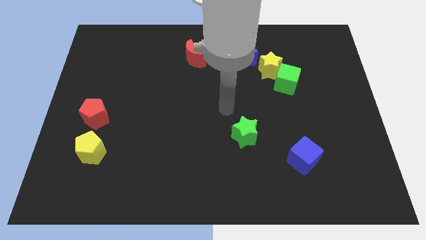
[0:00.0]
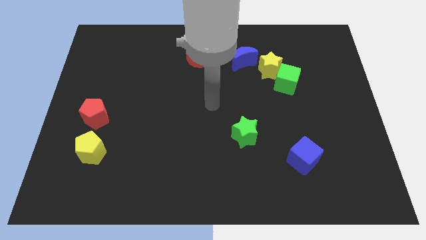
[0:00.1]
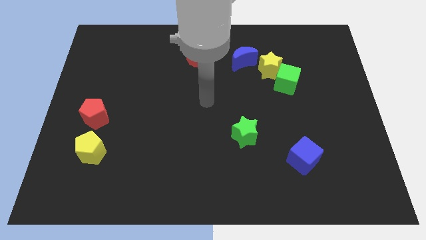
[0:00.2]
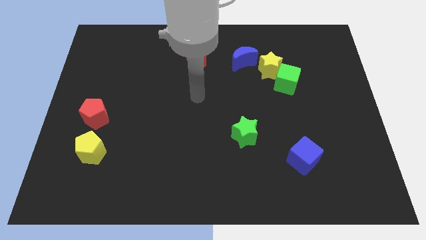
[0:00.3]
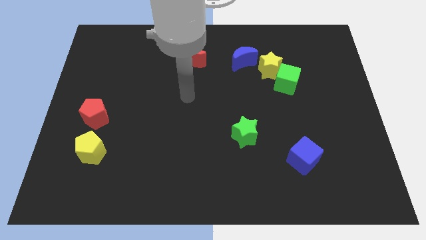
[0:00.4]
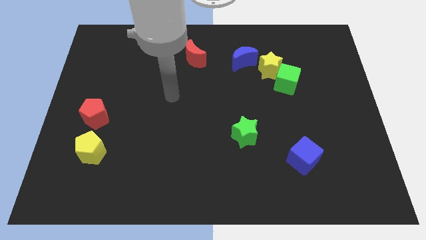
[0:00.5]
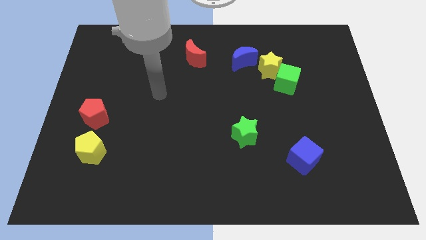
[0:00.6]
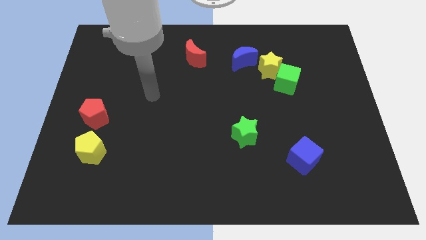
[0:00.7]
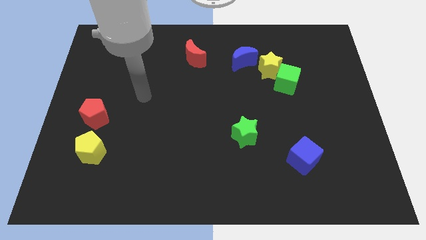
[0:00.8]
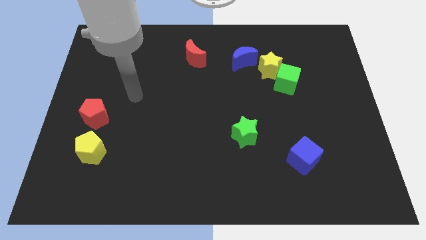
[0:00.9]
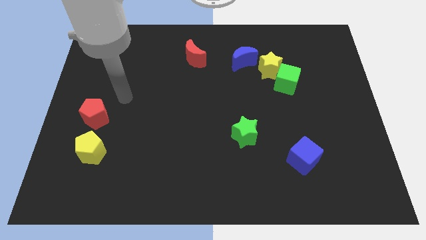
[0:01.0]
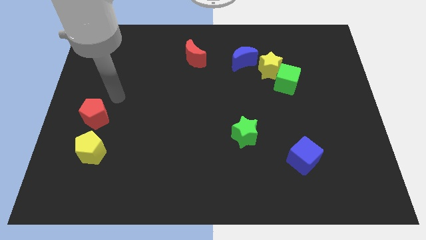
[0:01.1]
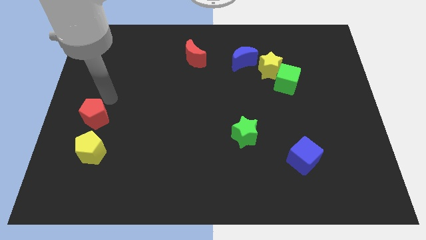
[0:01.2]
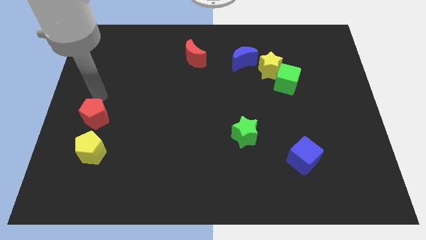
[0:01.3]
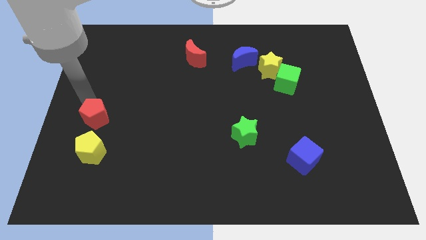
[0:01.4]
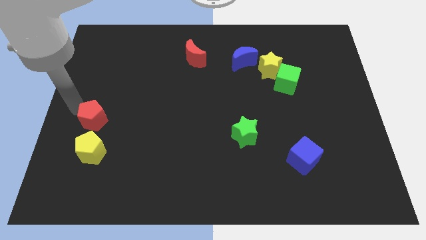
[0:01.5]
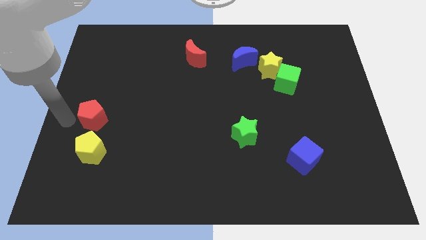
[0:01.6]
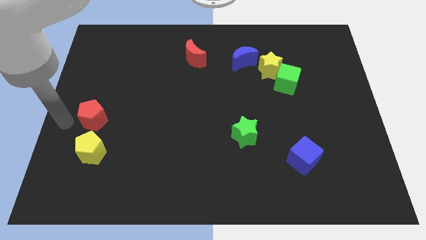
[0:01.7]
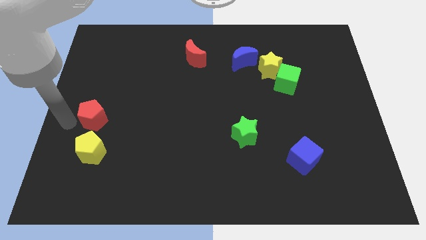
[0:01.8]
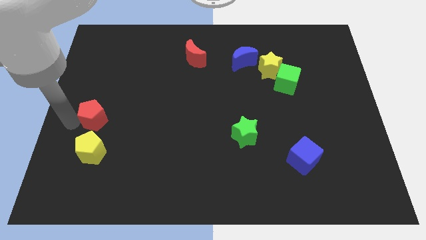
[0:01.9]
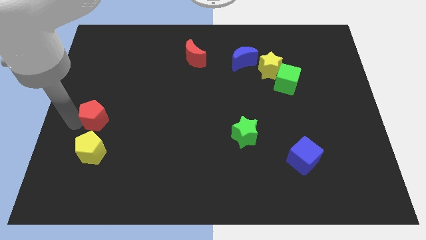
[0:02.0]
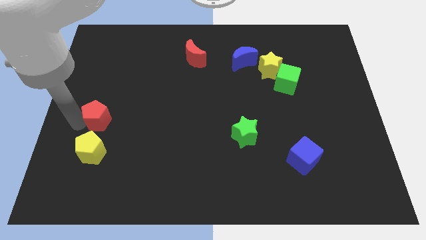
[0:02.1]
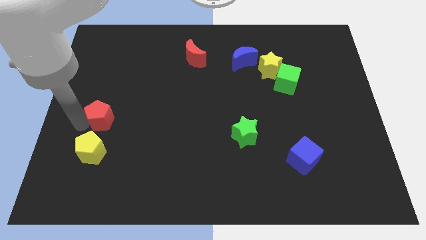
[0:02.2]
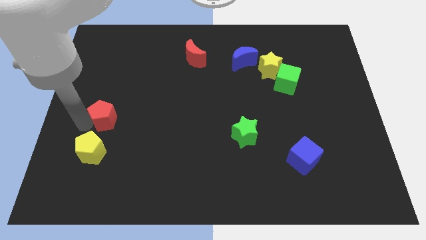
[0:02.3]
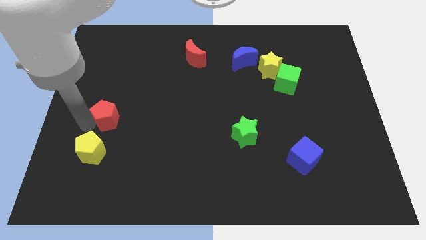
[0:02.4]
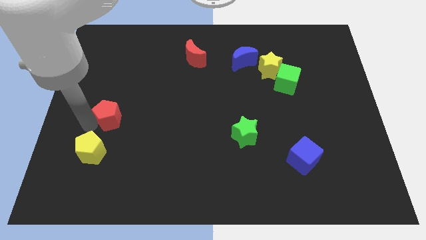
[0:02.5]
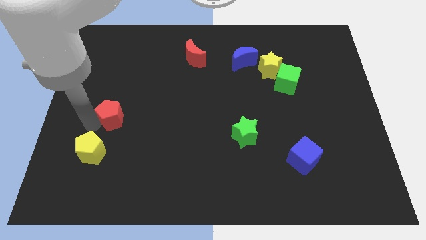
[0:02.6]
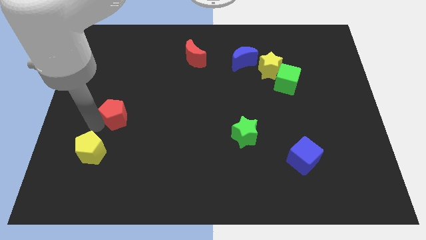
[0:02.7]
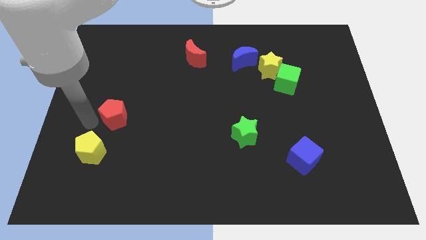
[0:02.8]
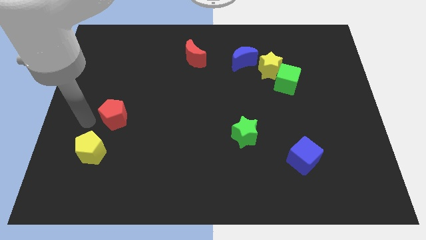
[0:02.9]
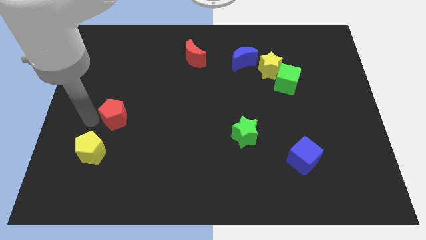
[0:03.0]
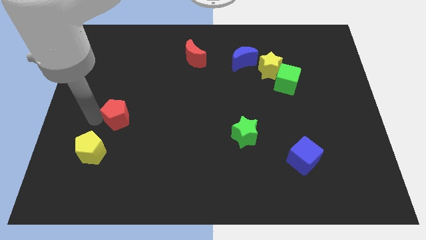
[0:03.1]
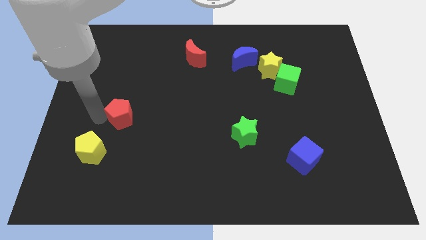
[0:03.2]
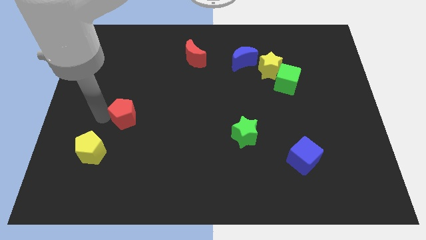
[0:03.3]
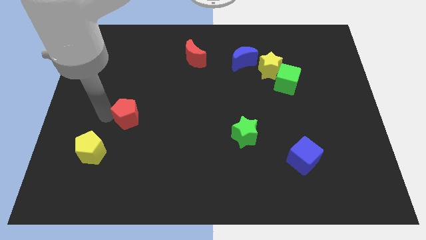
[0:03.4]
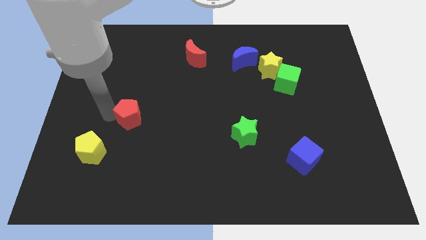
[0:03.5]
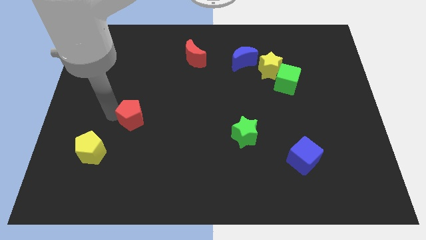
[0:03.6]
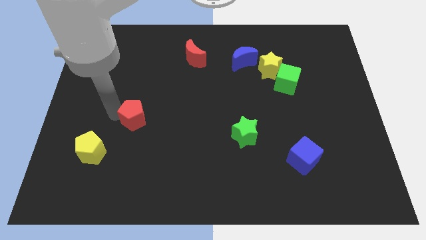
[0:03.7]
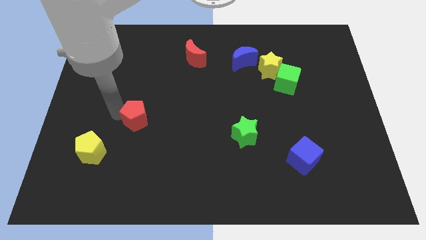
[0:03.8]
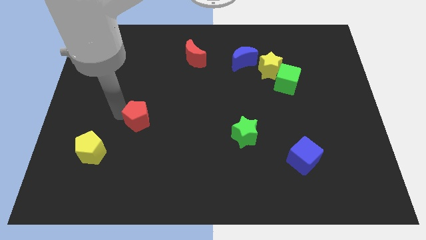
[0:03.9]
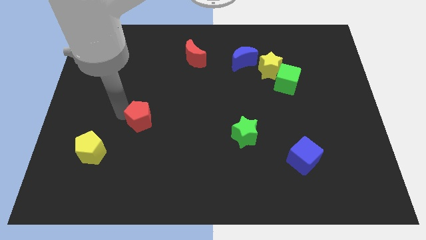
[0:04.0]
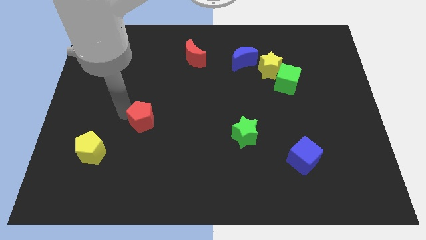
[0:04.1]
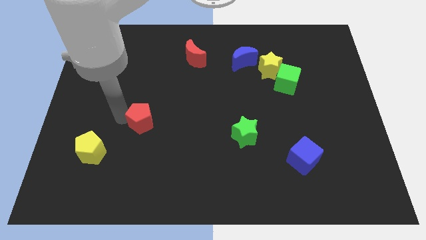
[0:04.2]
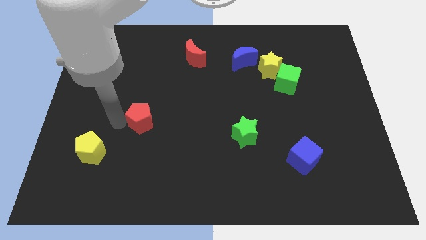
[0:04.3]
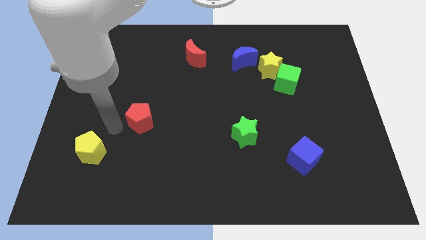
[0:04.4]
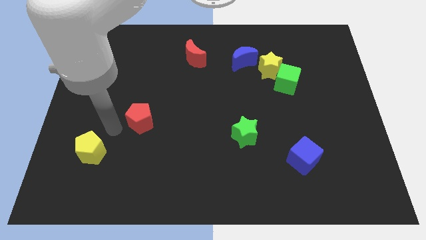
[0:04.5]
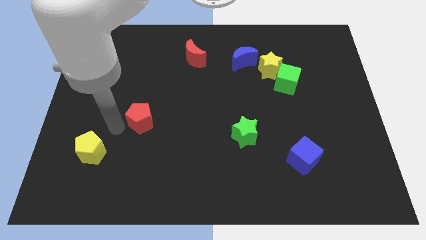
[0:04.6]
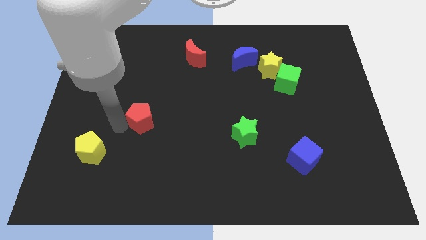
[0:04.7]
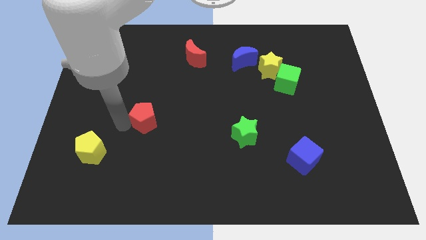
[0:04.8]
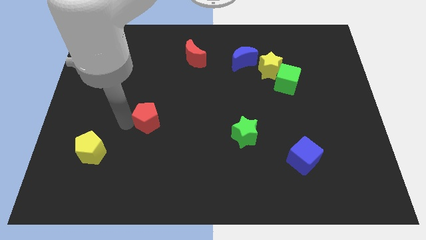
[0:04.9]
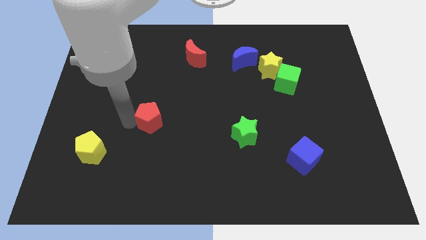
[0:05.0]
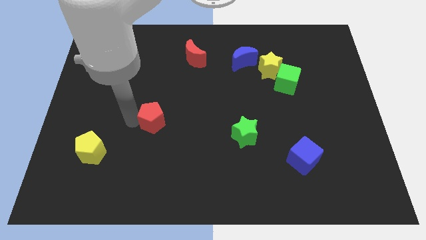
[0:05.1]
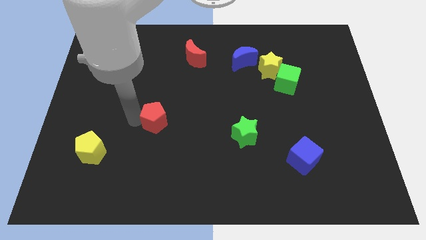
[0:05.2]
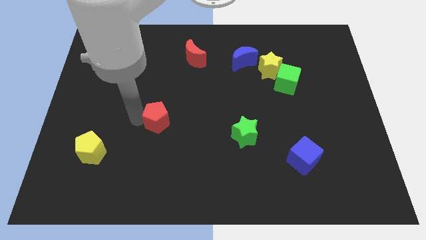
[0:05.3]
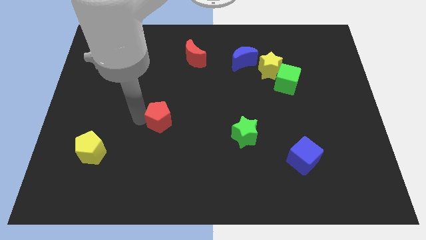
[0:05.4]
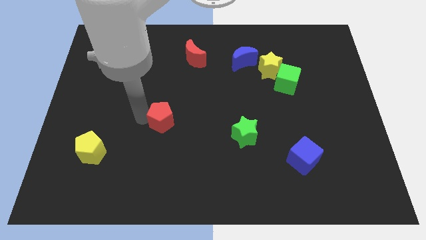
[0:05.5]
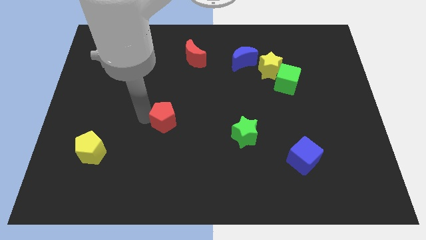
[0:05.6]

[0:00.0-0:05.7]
slide the red pentagon to the middle of the board

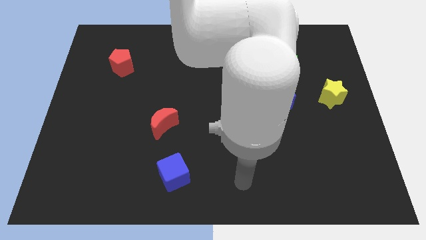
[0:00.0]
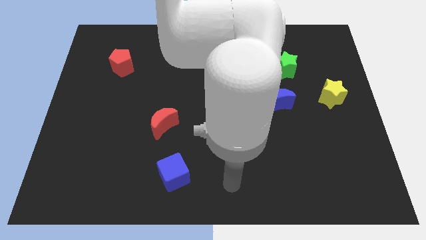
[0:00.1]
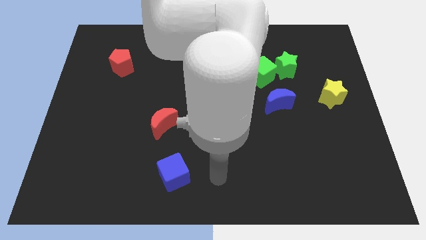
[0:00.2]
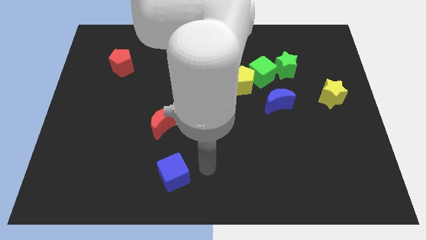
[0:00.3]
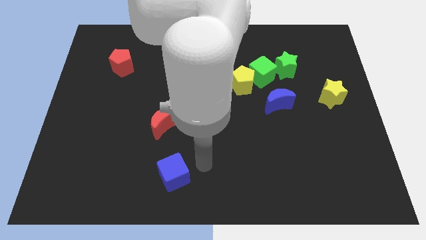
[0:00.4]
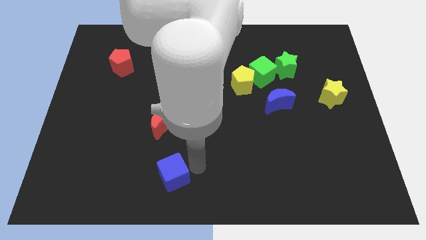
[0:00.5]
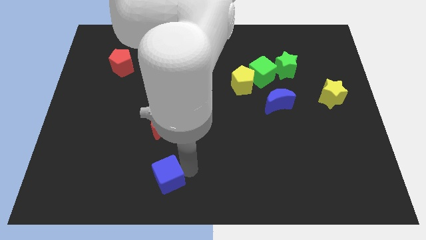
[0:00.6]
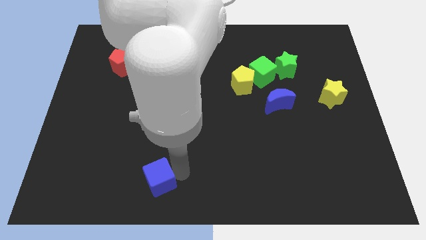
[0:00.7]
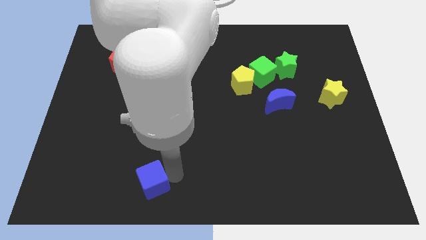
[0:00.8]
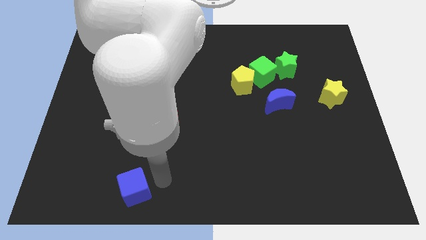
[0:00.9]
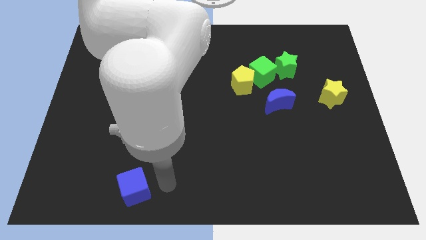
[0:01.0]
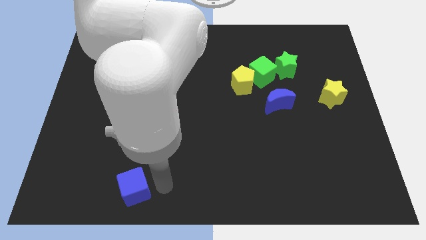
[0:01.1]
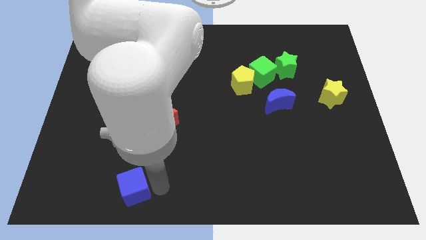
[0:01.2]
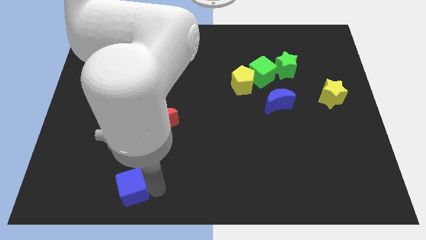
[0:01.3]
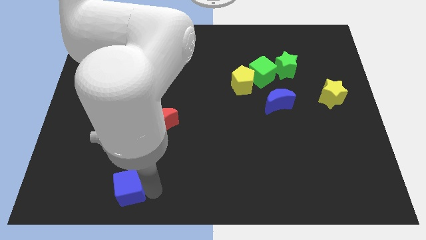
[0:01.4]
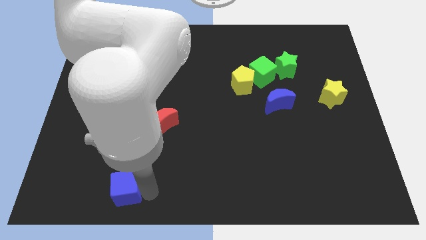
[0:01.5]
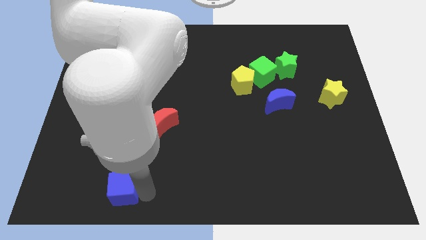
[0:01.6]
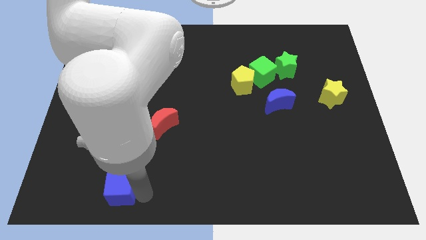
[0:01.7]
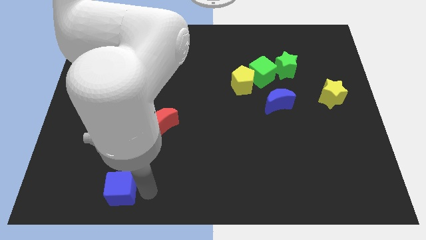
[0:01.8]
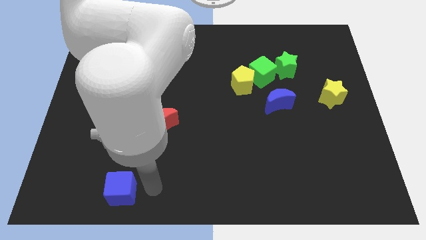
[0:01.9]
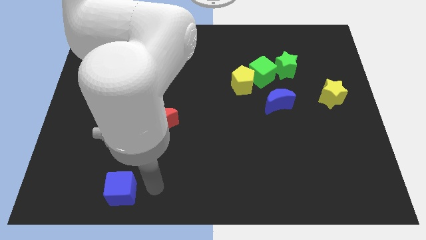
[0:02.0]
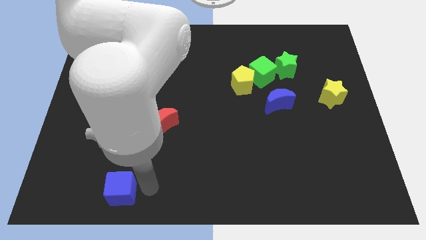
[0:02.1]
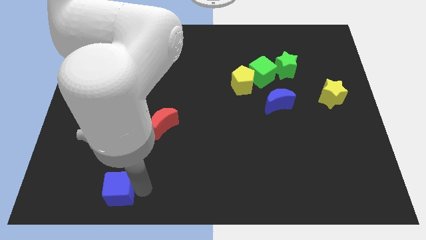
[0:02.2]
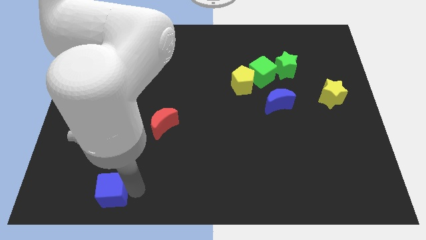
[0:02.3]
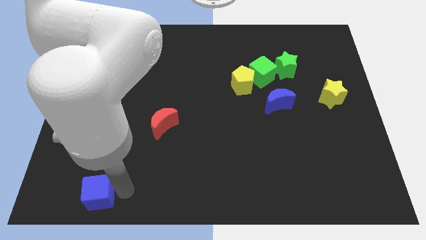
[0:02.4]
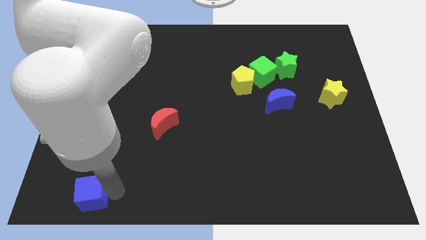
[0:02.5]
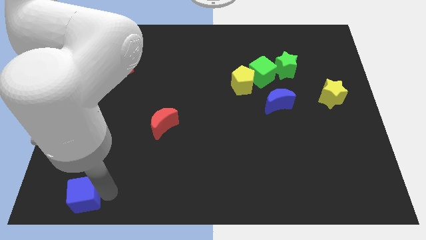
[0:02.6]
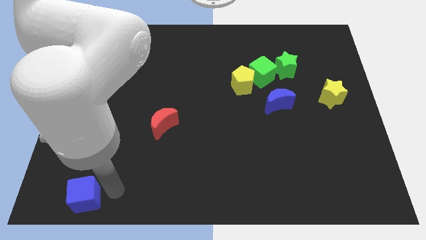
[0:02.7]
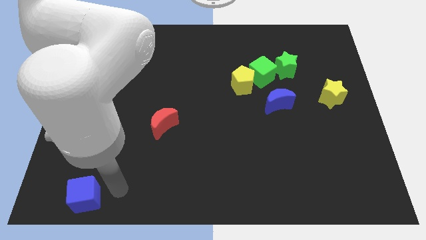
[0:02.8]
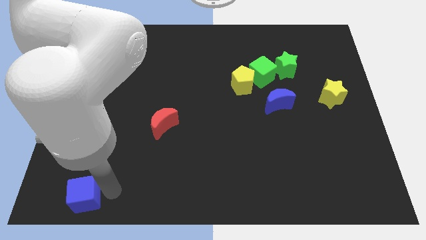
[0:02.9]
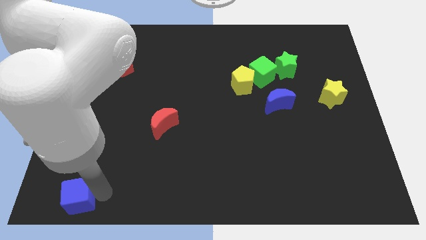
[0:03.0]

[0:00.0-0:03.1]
put the blue cube to the lower left corner
